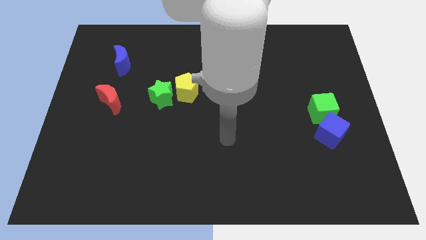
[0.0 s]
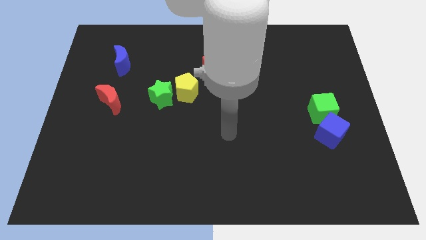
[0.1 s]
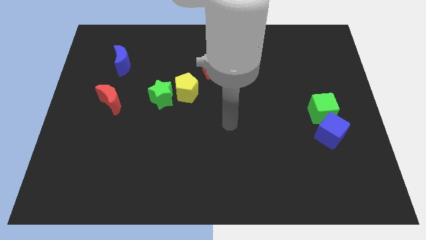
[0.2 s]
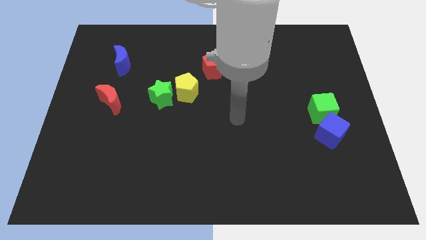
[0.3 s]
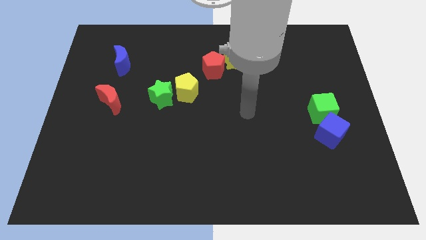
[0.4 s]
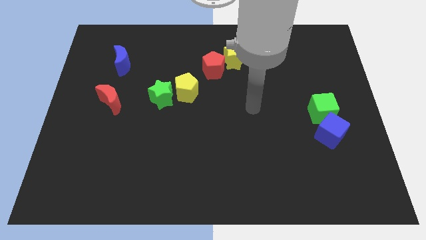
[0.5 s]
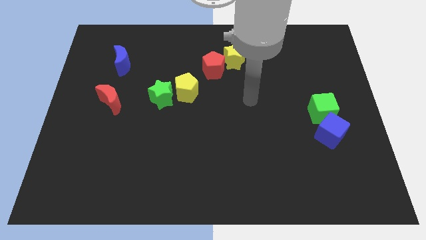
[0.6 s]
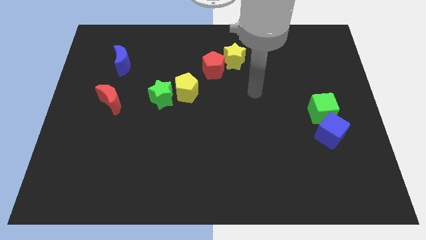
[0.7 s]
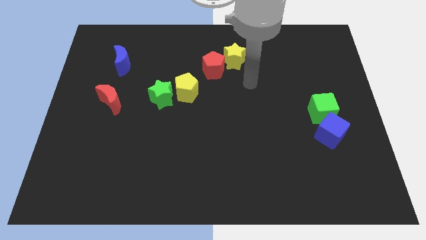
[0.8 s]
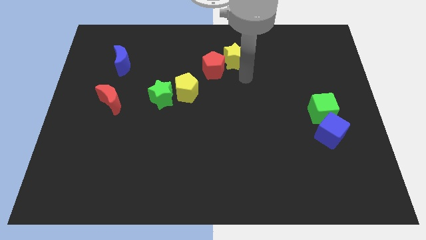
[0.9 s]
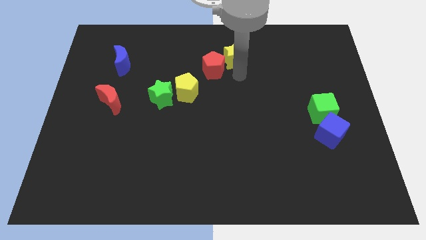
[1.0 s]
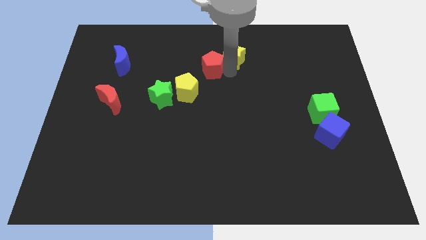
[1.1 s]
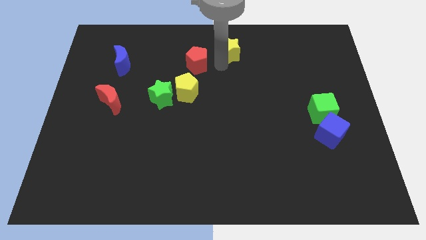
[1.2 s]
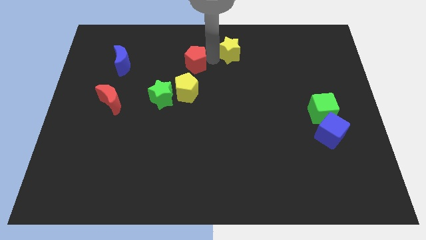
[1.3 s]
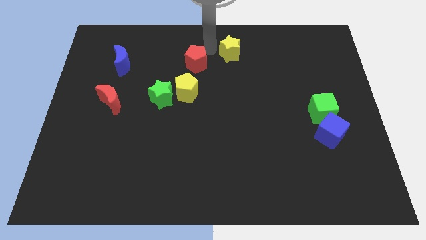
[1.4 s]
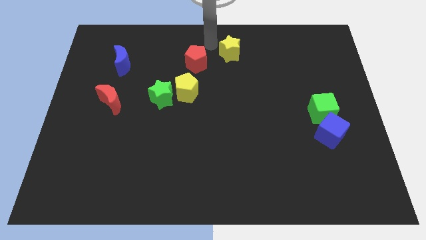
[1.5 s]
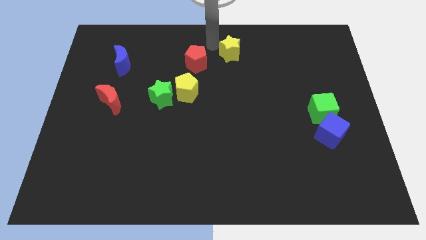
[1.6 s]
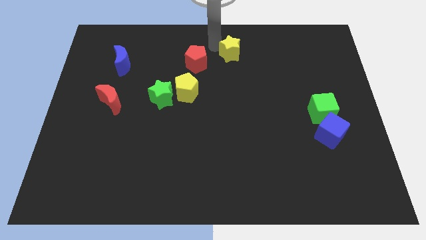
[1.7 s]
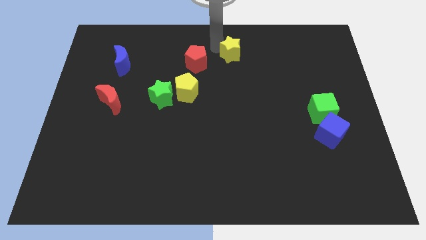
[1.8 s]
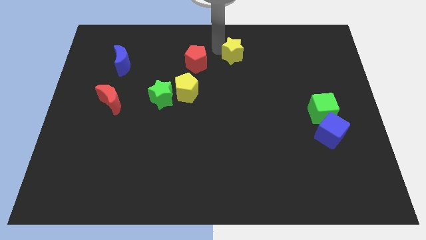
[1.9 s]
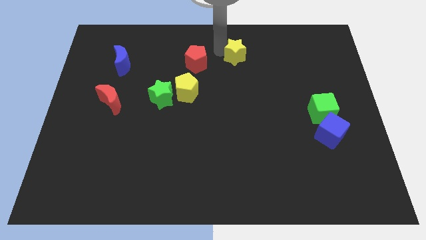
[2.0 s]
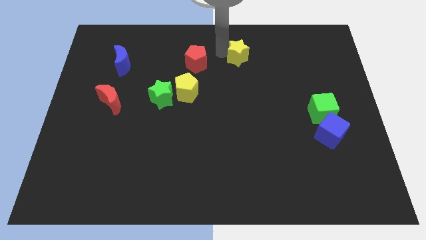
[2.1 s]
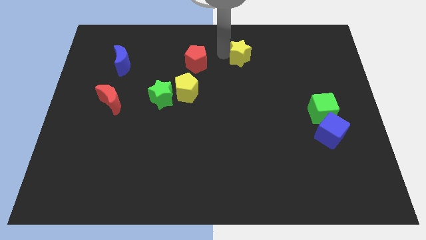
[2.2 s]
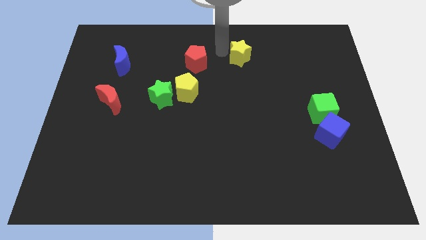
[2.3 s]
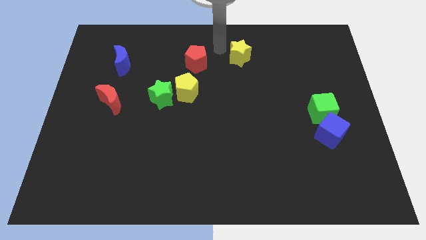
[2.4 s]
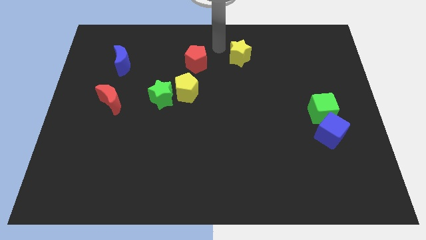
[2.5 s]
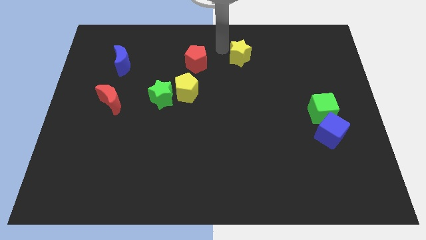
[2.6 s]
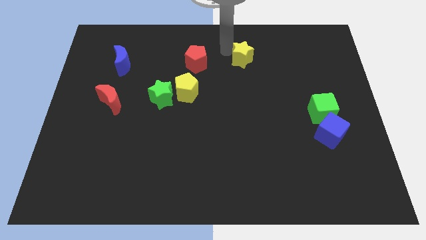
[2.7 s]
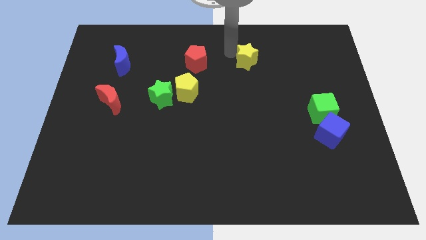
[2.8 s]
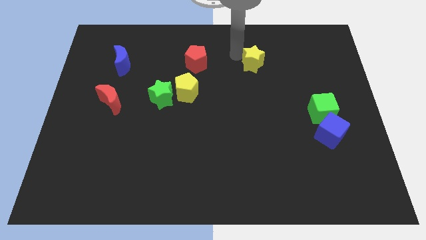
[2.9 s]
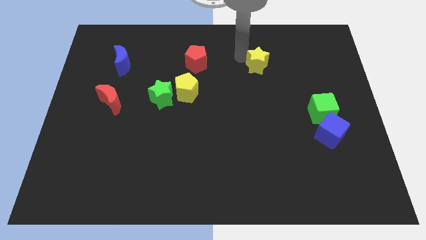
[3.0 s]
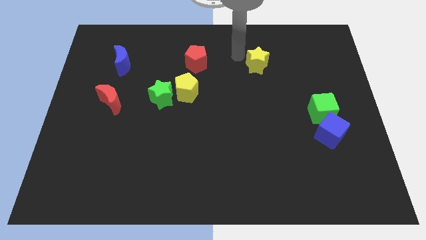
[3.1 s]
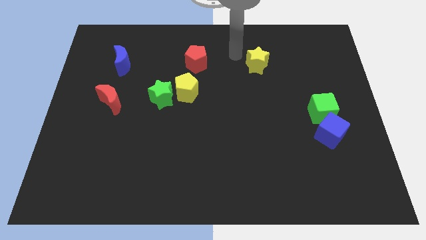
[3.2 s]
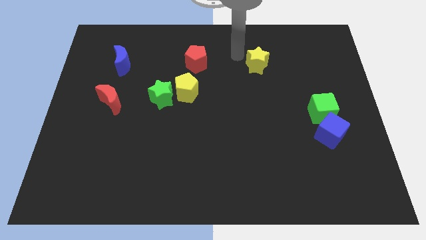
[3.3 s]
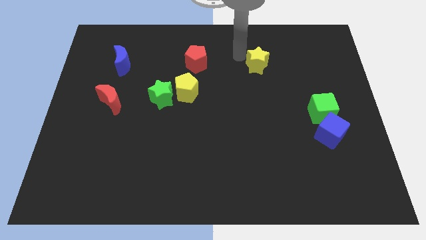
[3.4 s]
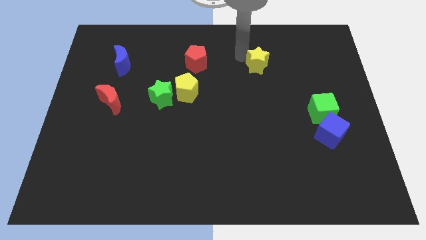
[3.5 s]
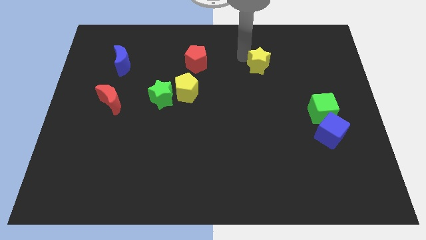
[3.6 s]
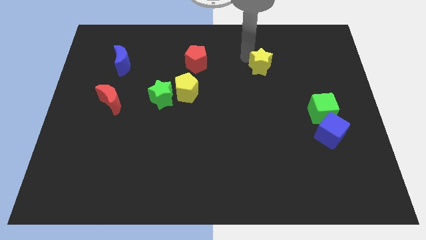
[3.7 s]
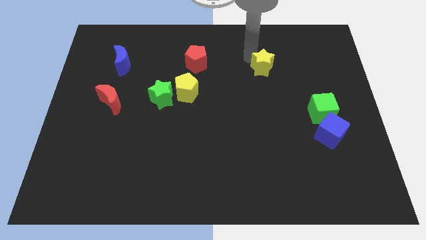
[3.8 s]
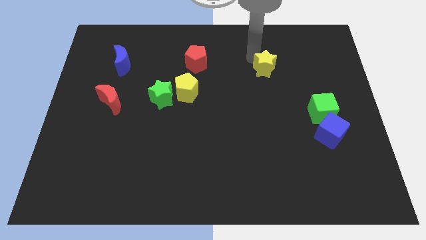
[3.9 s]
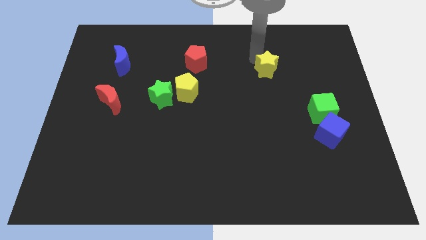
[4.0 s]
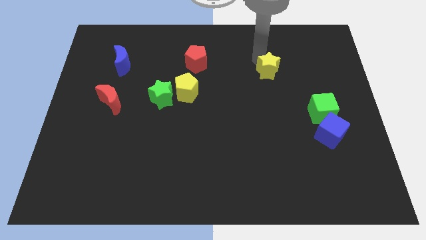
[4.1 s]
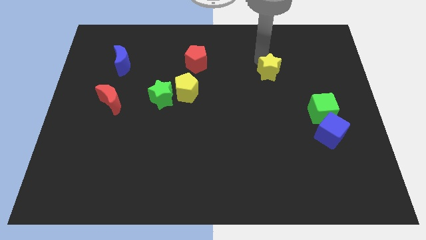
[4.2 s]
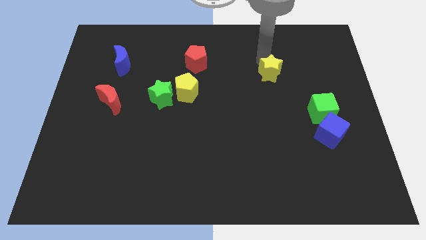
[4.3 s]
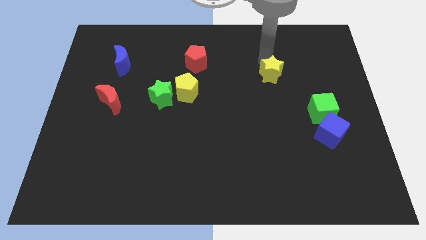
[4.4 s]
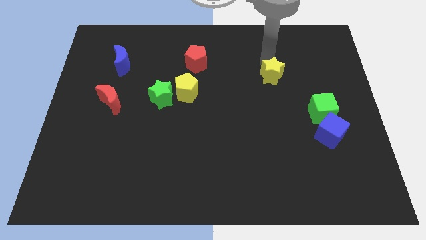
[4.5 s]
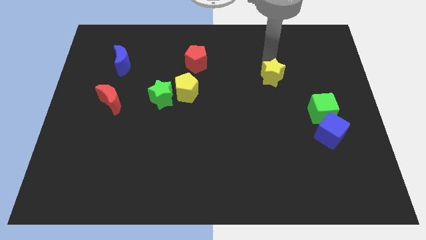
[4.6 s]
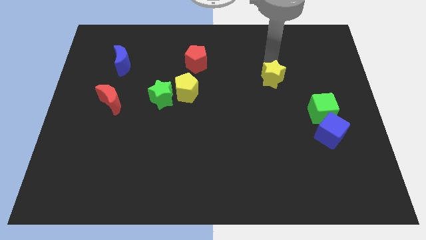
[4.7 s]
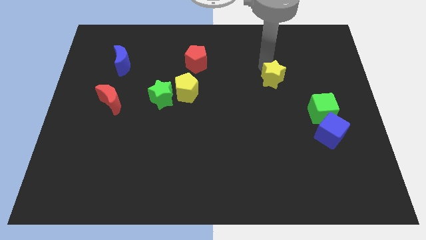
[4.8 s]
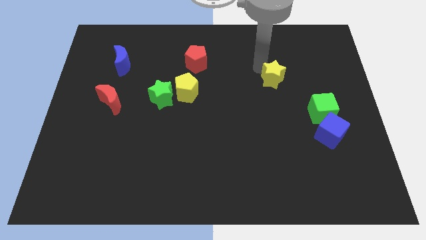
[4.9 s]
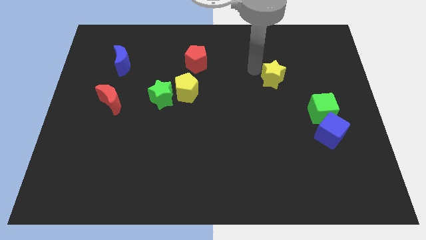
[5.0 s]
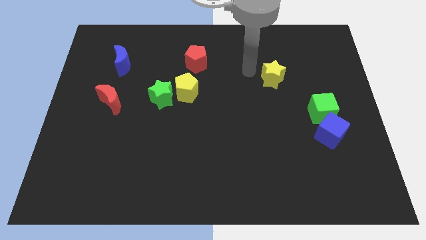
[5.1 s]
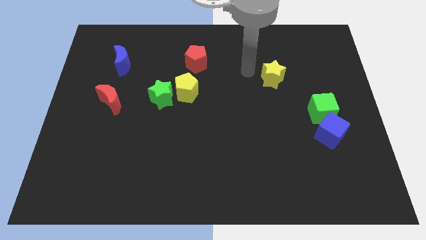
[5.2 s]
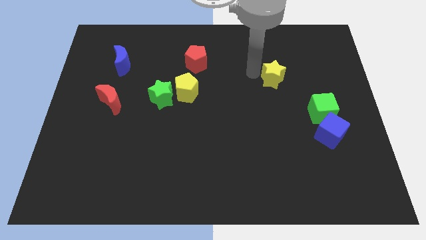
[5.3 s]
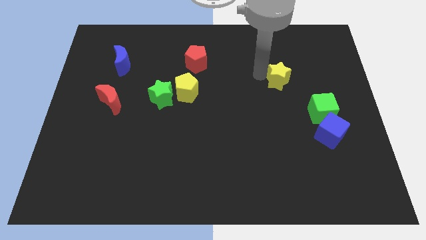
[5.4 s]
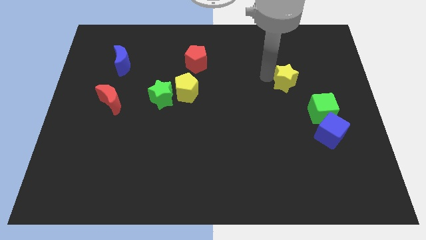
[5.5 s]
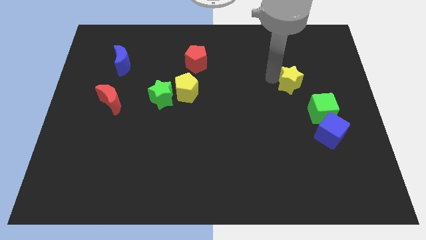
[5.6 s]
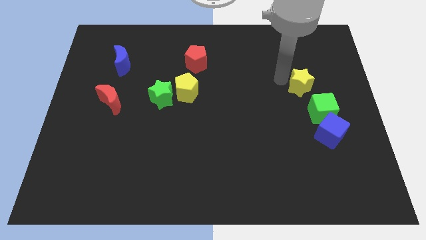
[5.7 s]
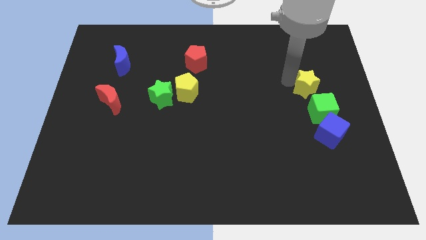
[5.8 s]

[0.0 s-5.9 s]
move the yellow star to the top side of the blue cube
